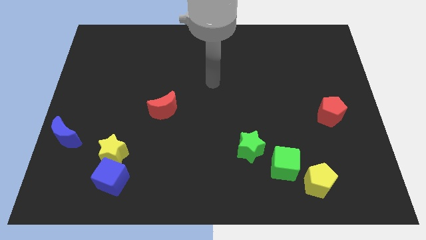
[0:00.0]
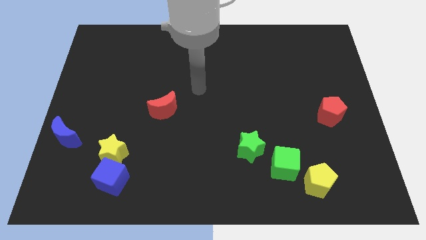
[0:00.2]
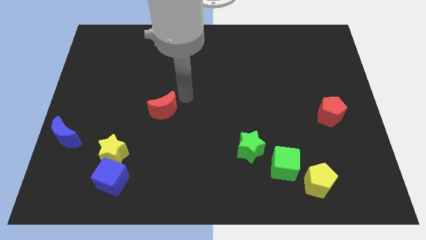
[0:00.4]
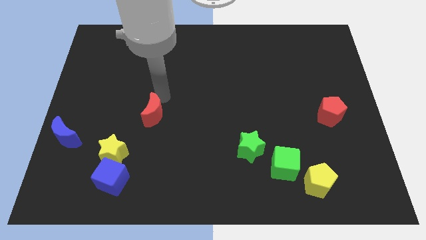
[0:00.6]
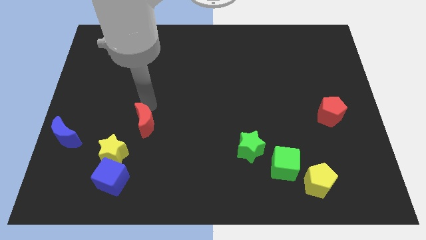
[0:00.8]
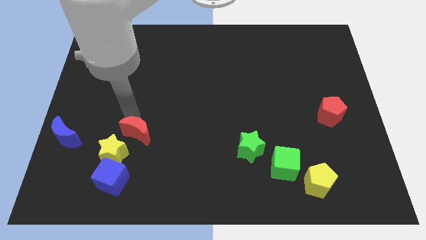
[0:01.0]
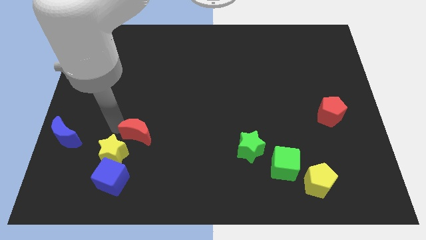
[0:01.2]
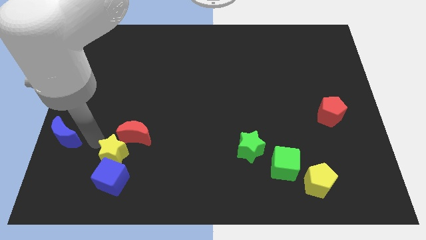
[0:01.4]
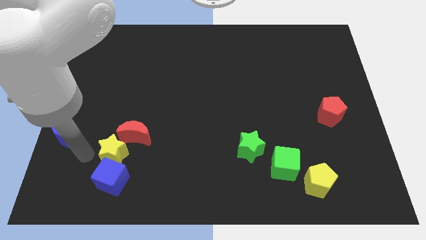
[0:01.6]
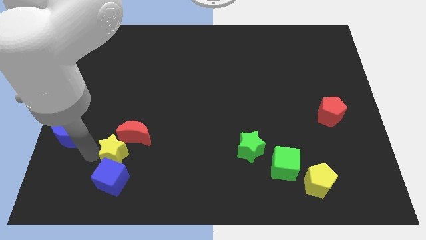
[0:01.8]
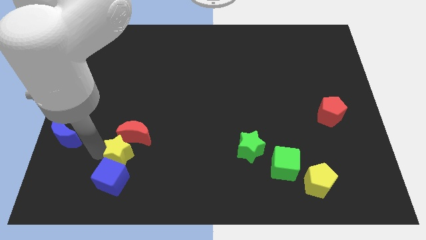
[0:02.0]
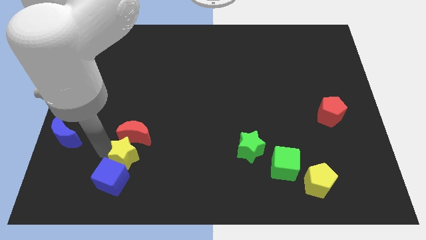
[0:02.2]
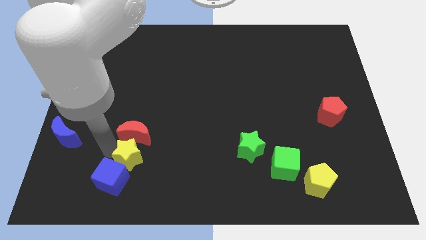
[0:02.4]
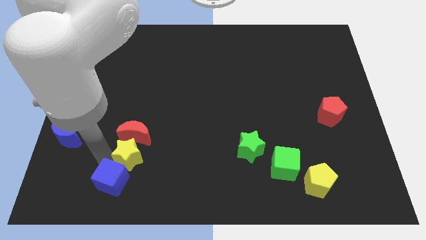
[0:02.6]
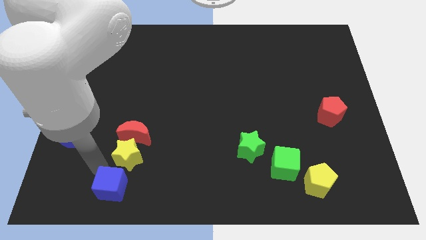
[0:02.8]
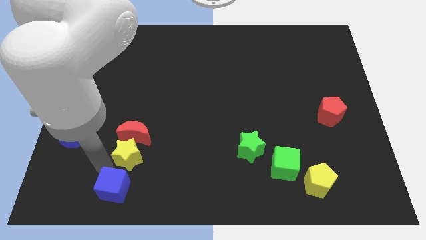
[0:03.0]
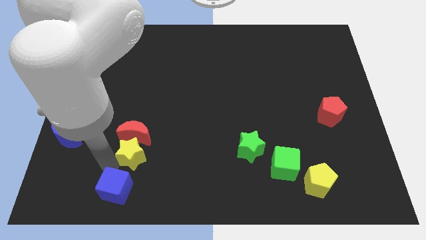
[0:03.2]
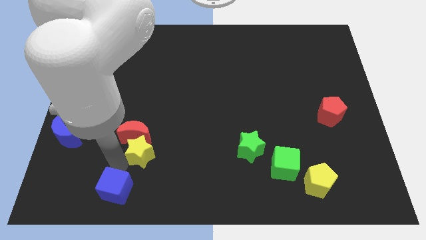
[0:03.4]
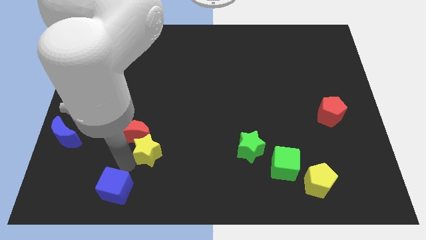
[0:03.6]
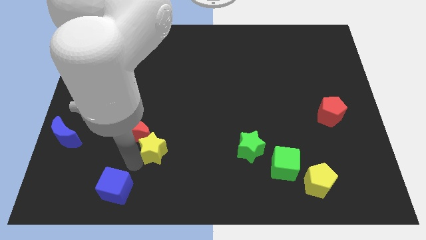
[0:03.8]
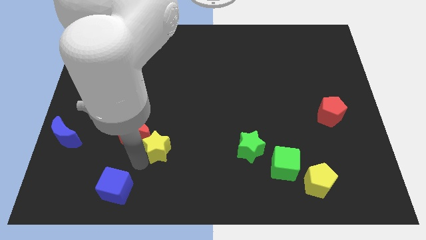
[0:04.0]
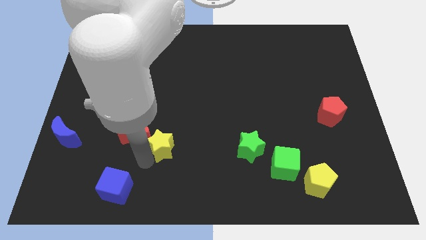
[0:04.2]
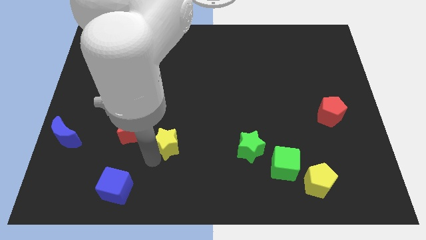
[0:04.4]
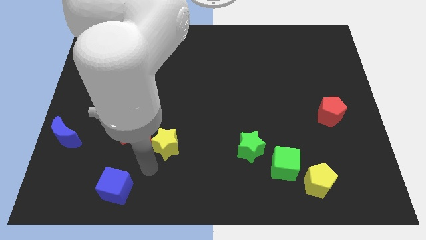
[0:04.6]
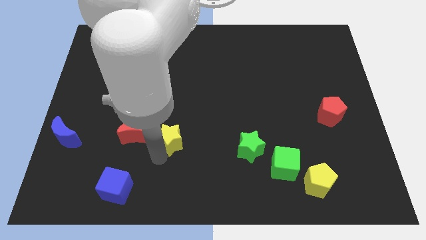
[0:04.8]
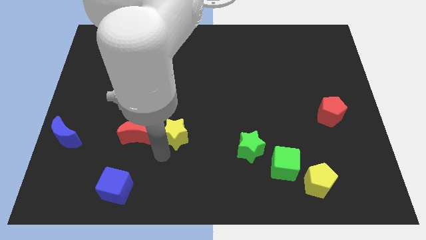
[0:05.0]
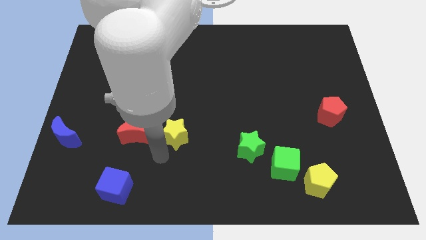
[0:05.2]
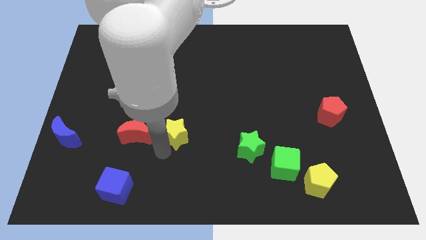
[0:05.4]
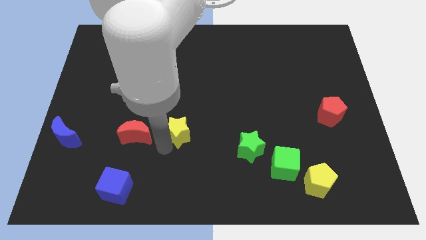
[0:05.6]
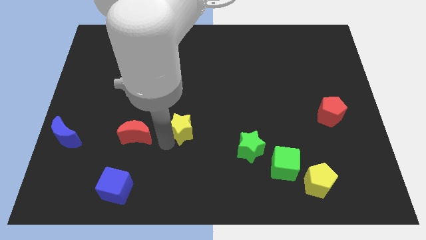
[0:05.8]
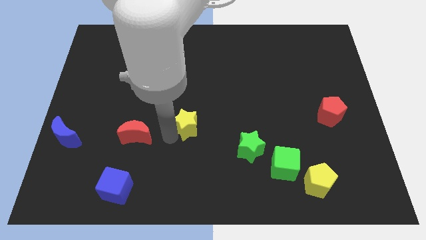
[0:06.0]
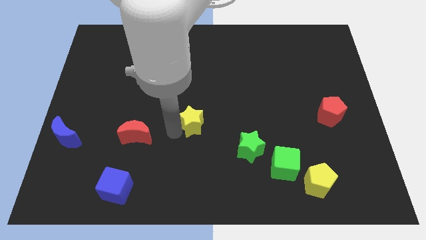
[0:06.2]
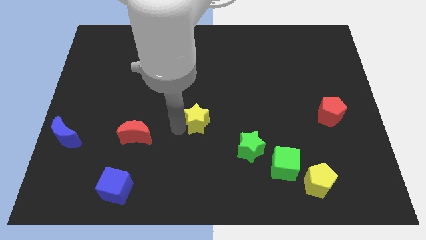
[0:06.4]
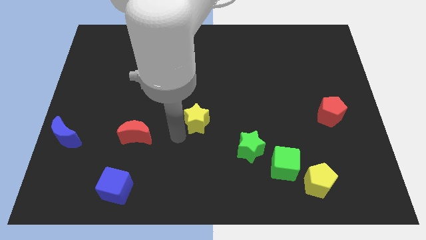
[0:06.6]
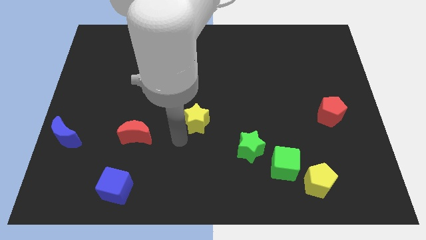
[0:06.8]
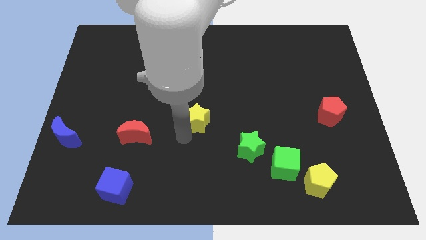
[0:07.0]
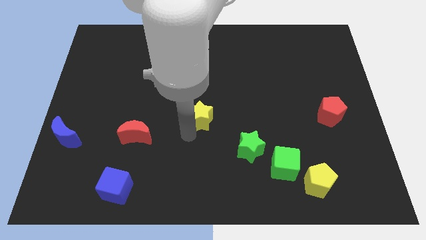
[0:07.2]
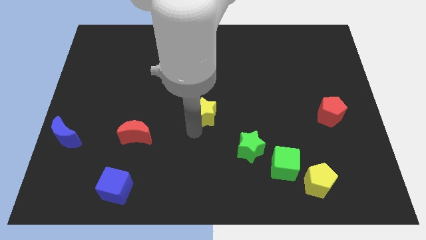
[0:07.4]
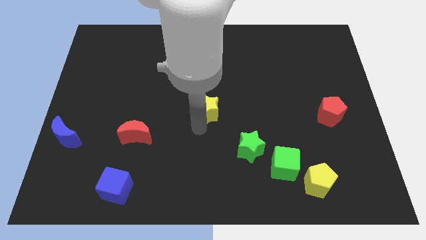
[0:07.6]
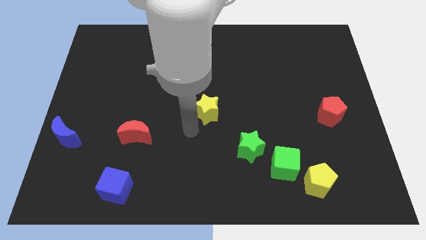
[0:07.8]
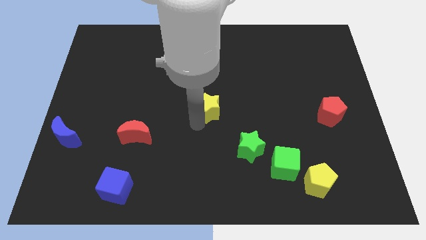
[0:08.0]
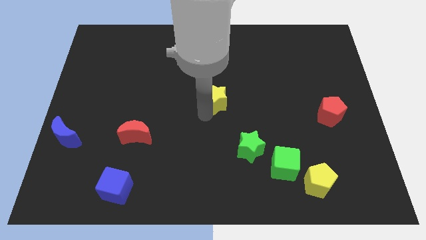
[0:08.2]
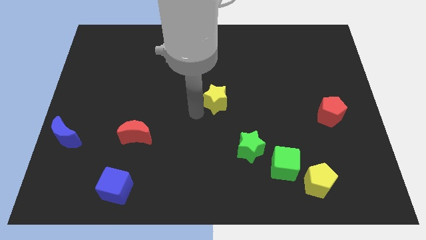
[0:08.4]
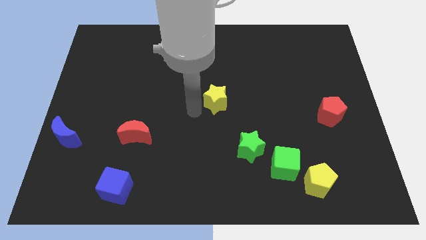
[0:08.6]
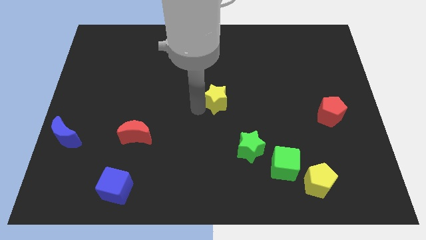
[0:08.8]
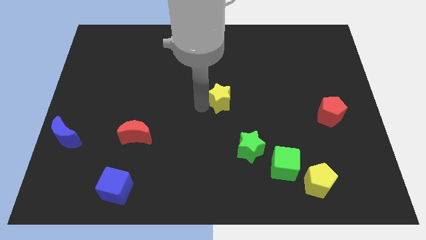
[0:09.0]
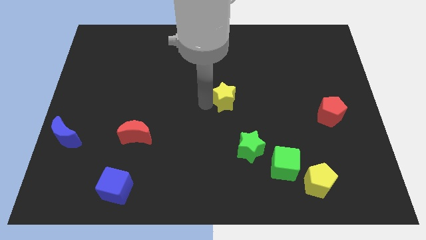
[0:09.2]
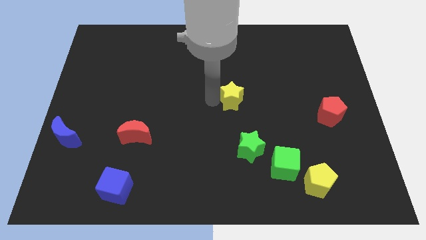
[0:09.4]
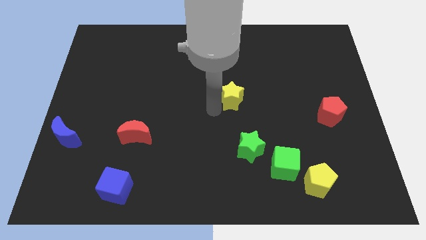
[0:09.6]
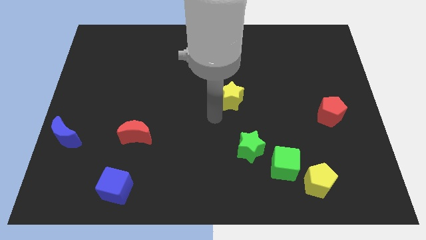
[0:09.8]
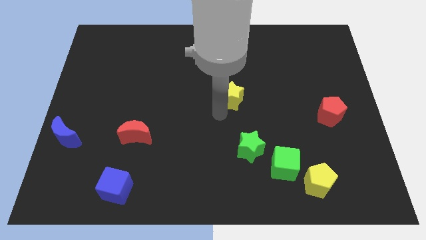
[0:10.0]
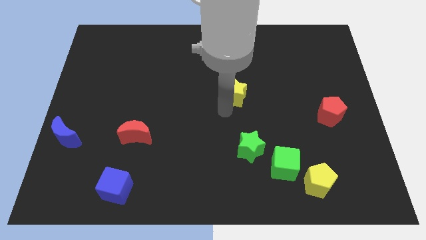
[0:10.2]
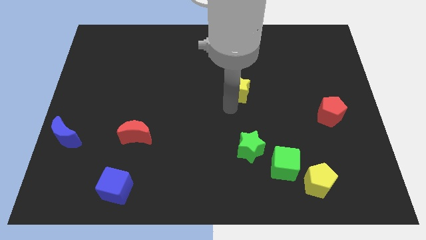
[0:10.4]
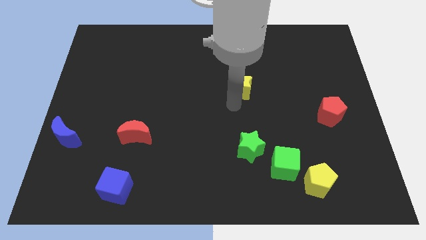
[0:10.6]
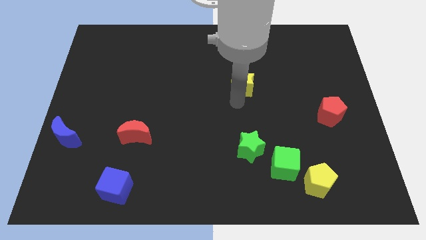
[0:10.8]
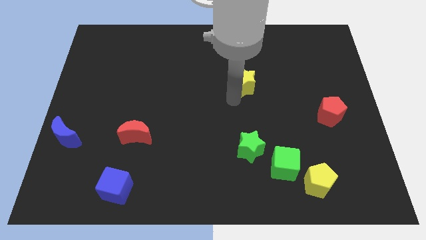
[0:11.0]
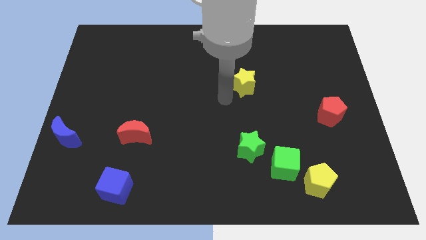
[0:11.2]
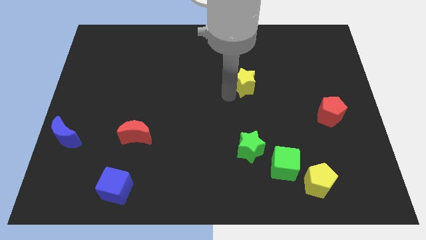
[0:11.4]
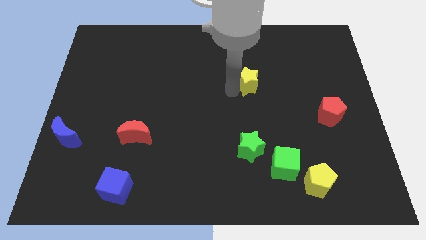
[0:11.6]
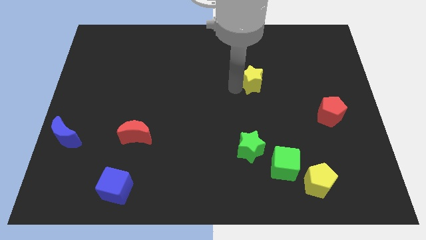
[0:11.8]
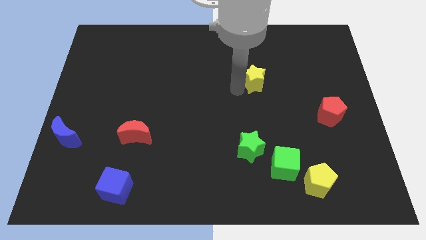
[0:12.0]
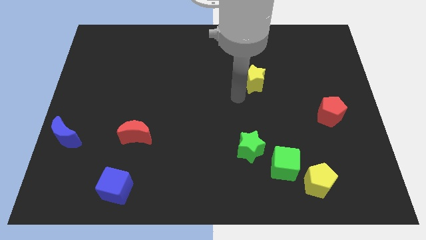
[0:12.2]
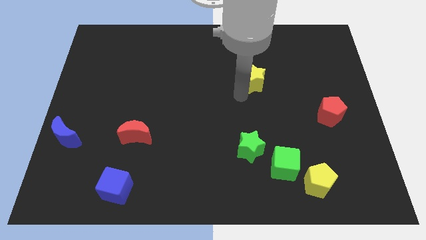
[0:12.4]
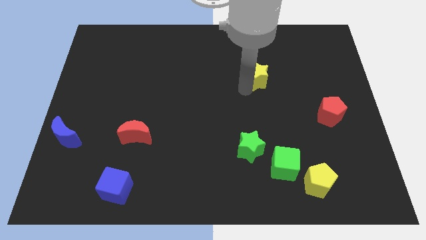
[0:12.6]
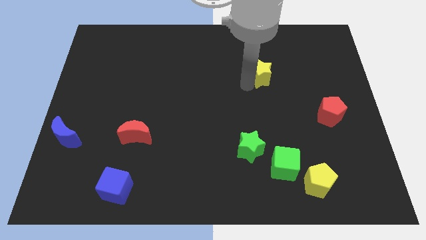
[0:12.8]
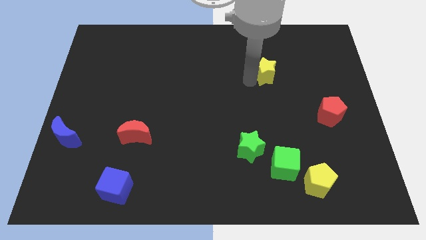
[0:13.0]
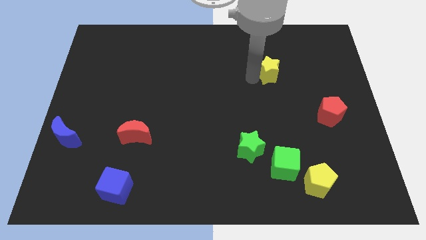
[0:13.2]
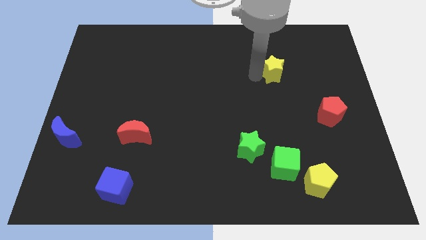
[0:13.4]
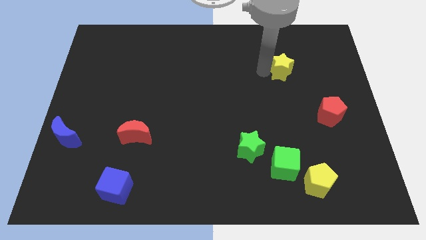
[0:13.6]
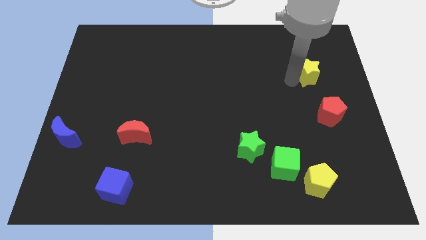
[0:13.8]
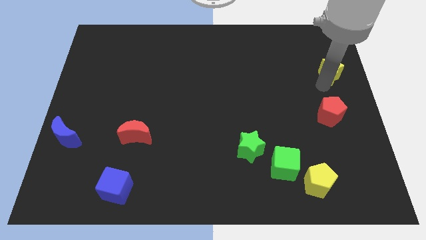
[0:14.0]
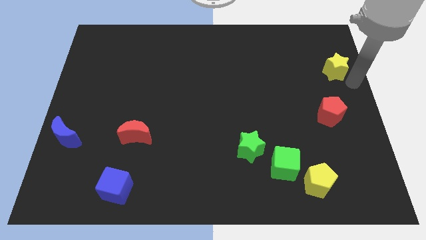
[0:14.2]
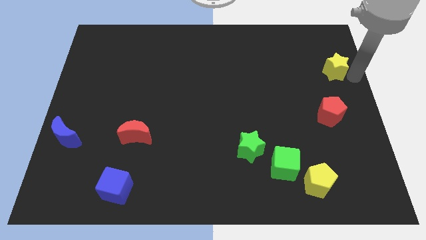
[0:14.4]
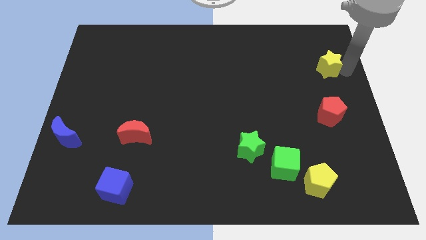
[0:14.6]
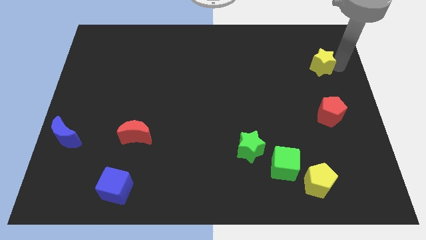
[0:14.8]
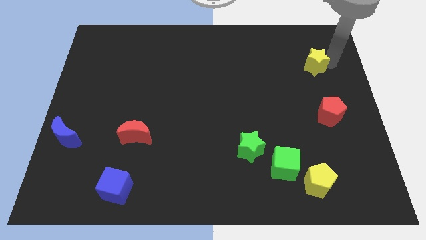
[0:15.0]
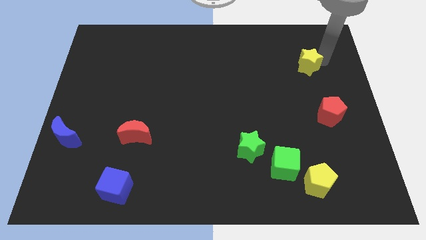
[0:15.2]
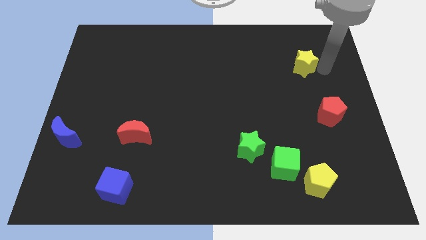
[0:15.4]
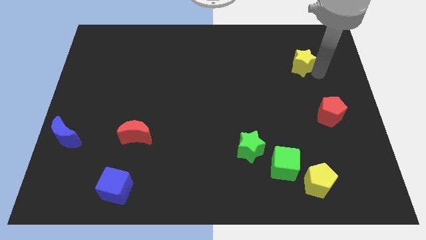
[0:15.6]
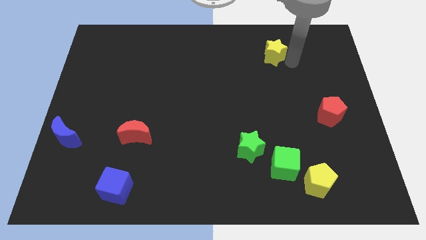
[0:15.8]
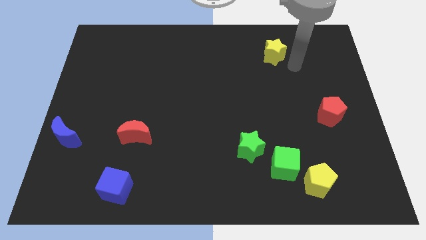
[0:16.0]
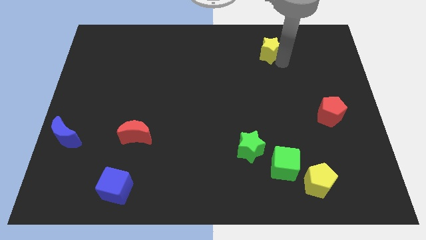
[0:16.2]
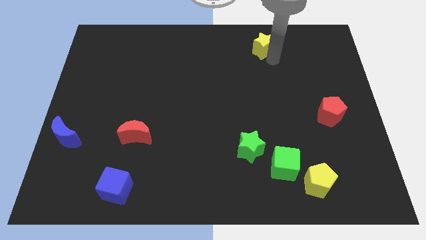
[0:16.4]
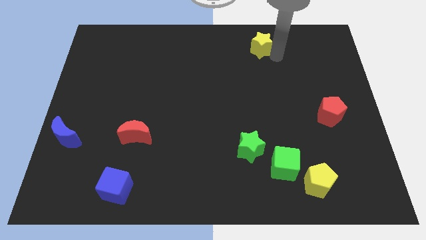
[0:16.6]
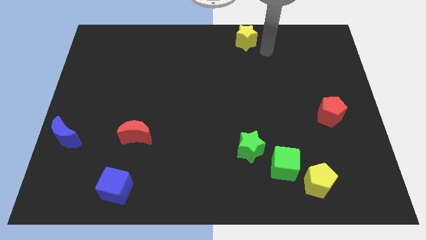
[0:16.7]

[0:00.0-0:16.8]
push the yellow star to the top
